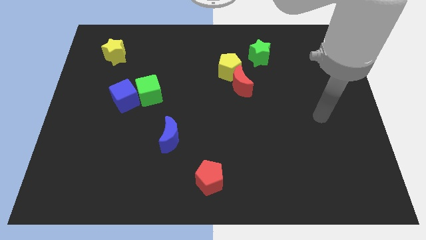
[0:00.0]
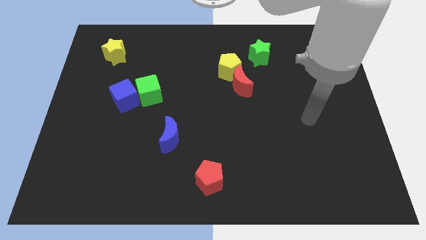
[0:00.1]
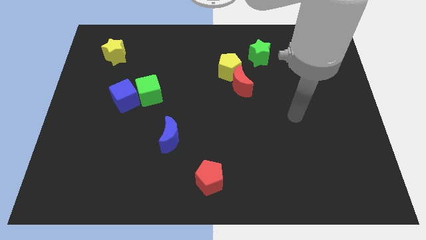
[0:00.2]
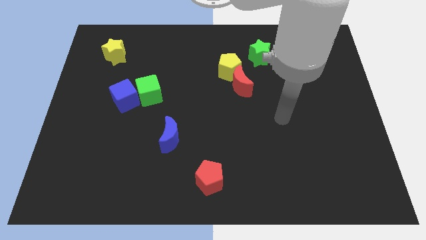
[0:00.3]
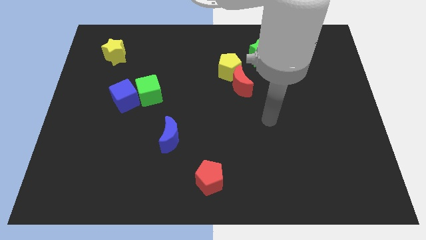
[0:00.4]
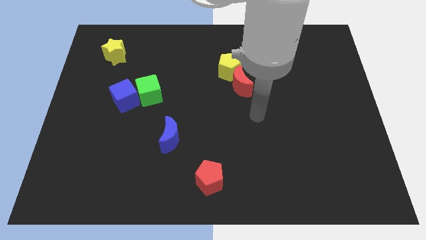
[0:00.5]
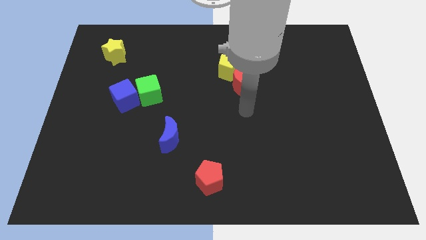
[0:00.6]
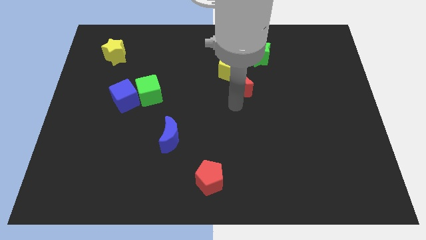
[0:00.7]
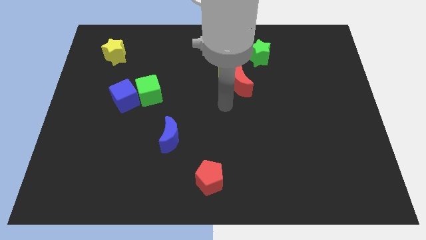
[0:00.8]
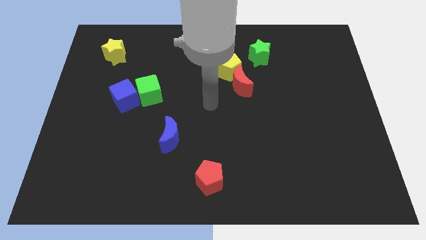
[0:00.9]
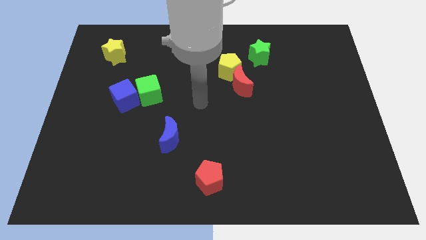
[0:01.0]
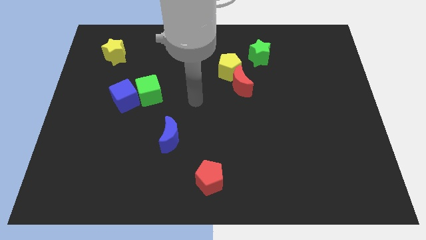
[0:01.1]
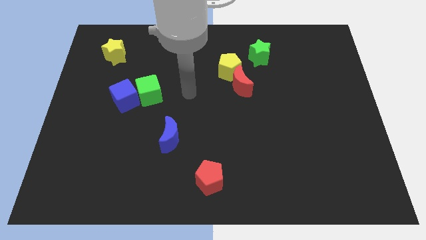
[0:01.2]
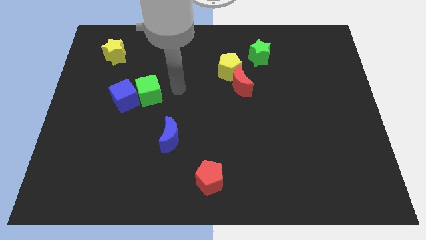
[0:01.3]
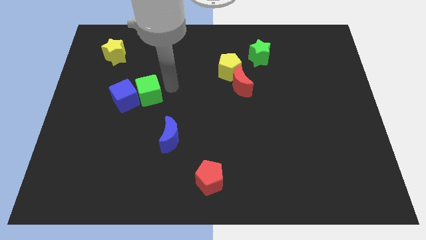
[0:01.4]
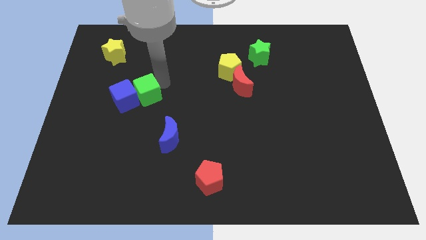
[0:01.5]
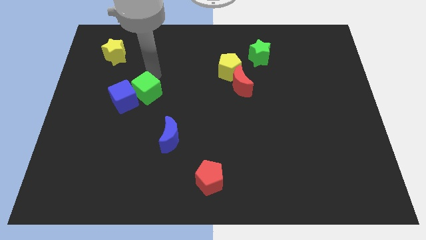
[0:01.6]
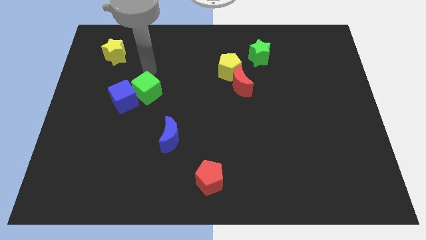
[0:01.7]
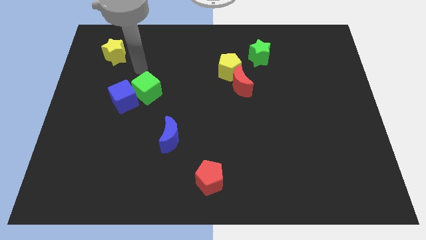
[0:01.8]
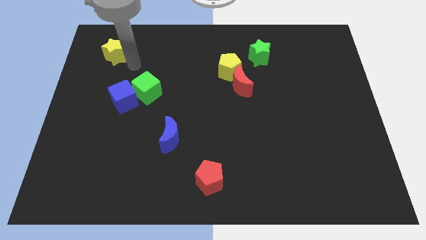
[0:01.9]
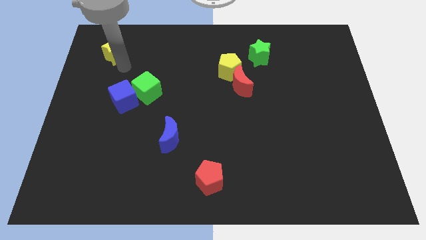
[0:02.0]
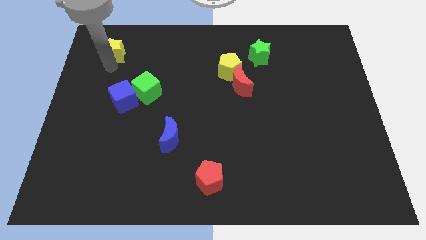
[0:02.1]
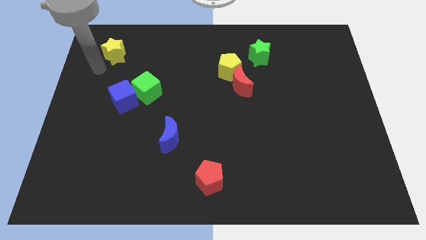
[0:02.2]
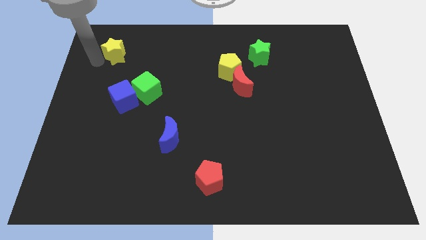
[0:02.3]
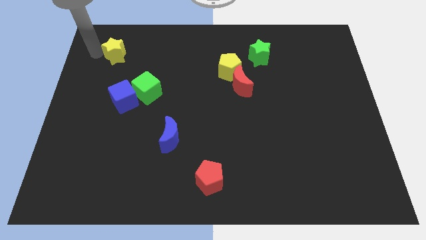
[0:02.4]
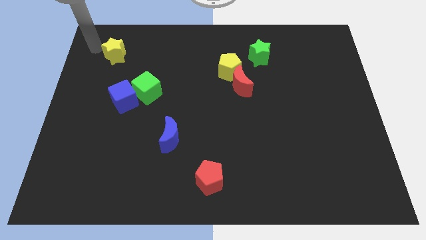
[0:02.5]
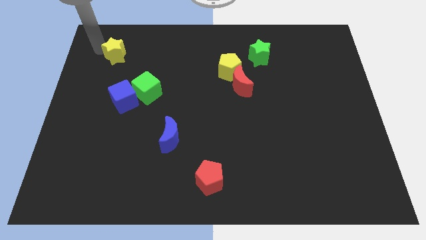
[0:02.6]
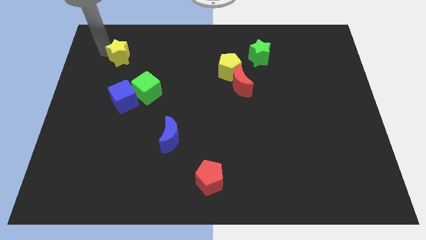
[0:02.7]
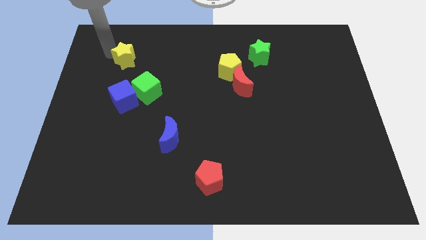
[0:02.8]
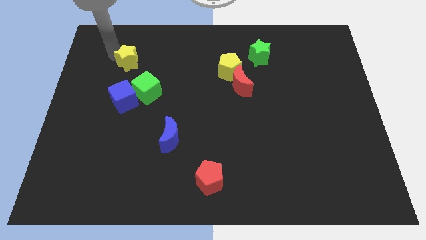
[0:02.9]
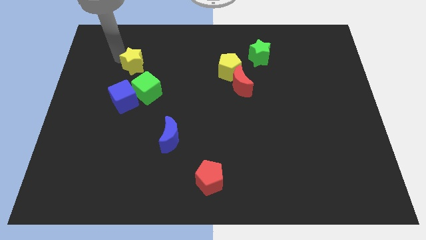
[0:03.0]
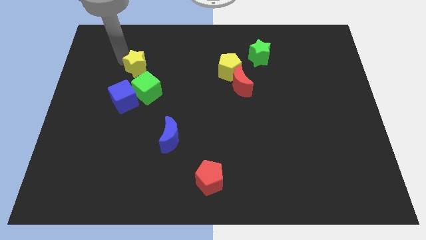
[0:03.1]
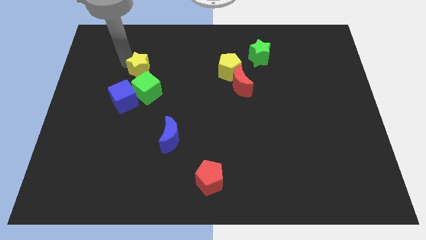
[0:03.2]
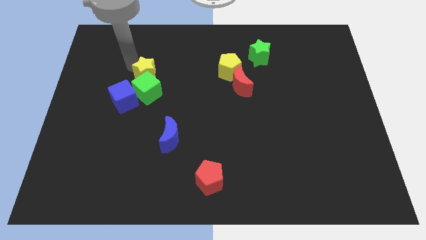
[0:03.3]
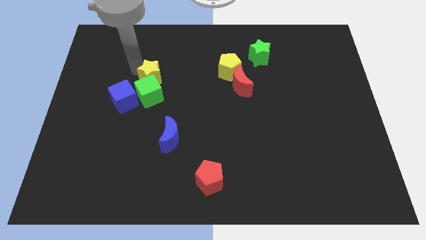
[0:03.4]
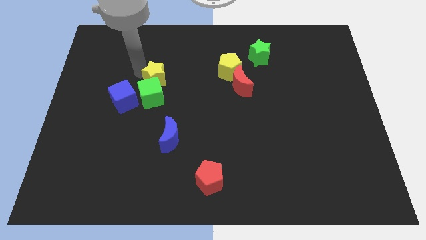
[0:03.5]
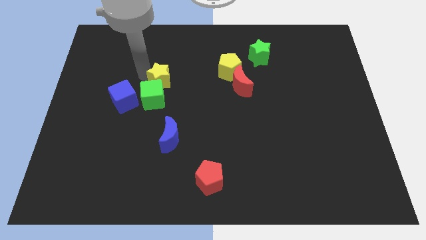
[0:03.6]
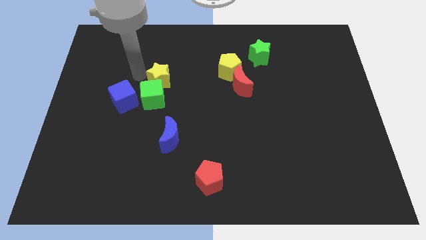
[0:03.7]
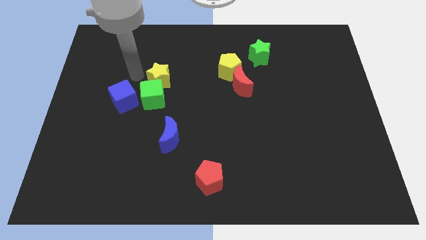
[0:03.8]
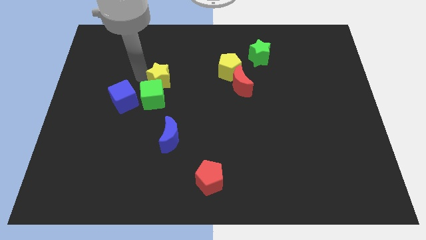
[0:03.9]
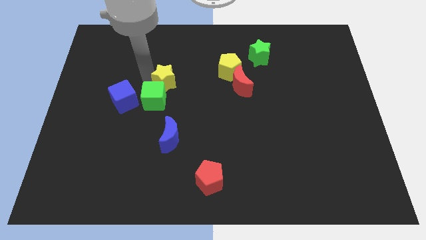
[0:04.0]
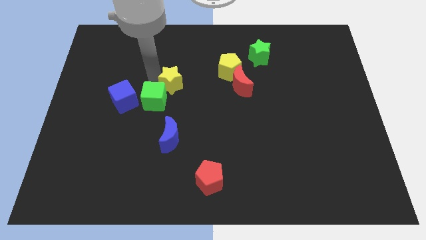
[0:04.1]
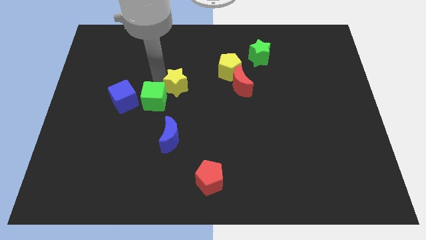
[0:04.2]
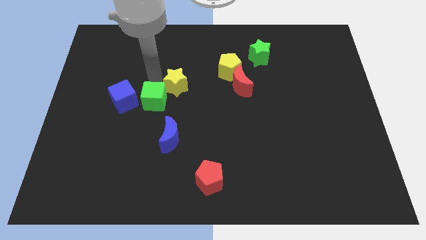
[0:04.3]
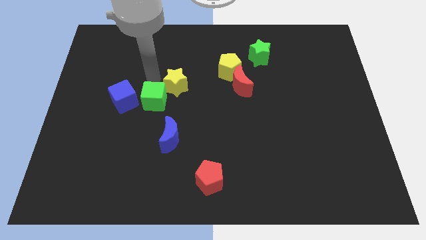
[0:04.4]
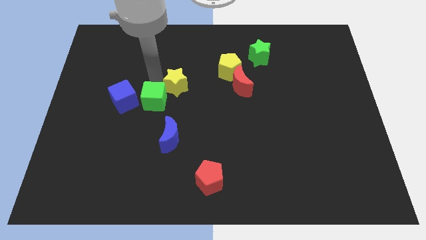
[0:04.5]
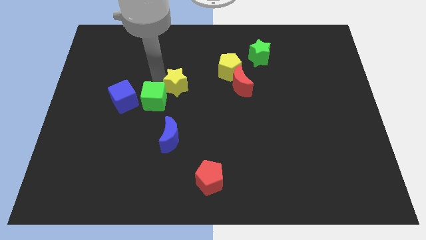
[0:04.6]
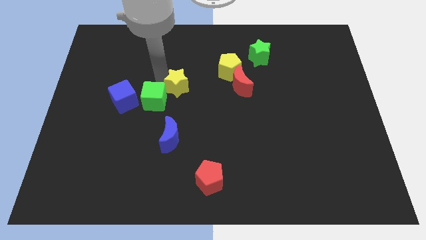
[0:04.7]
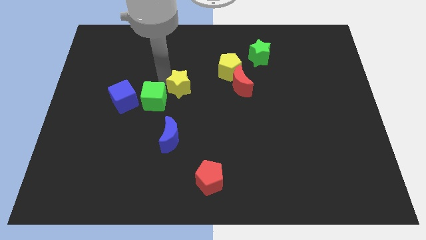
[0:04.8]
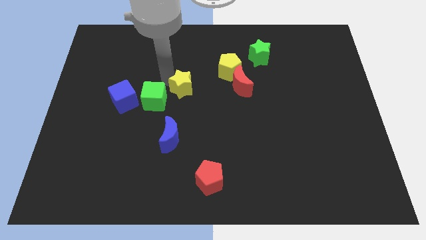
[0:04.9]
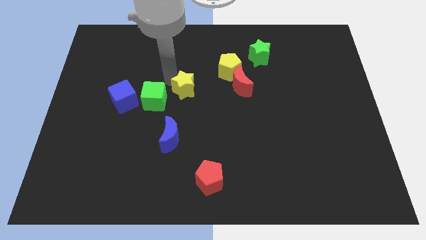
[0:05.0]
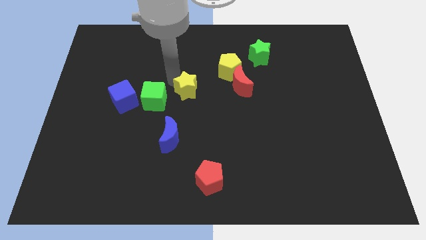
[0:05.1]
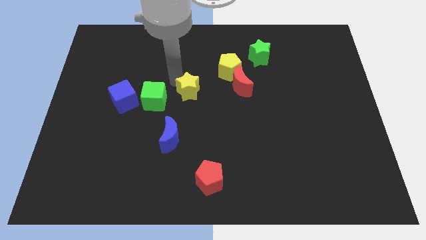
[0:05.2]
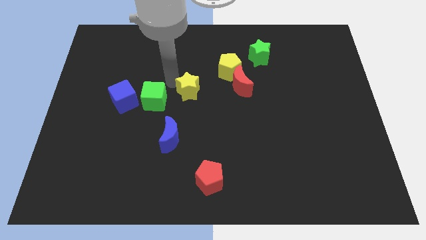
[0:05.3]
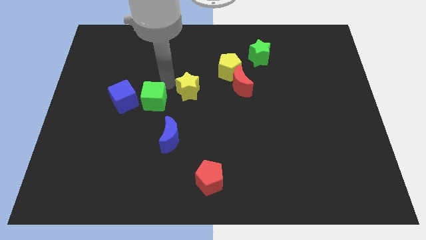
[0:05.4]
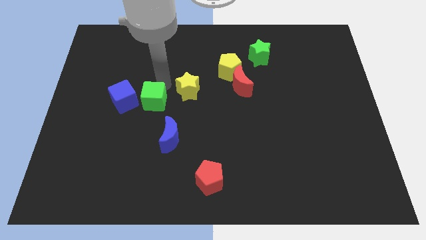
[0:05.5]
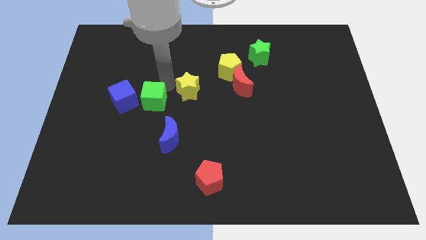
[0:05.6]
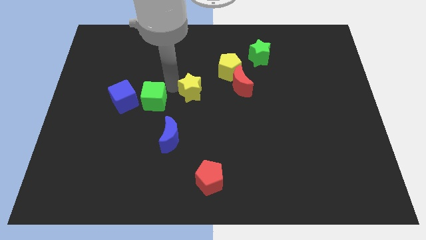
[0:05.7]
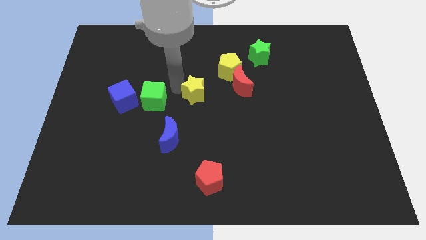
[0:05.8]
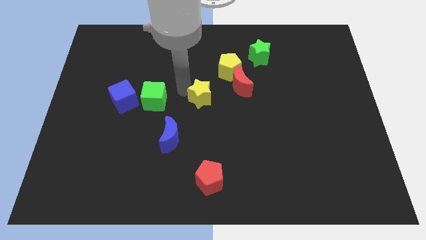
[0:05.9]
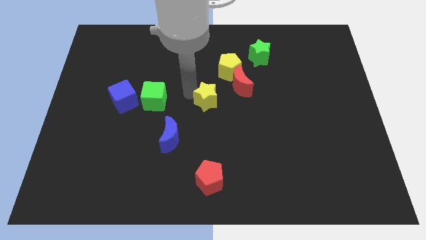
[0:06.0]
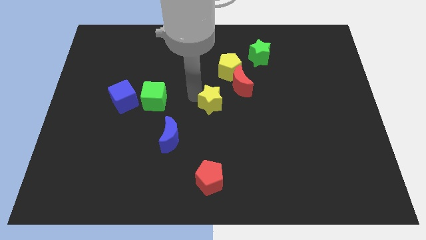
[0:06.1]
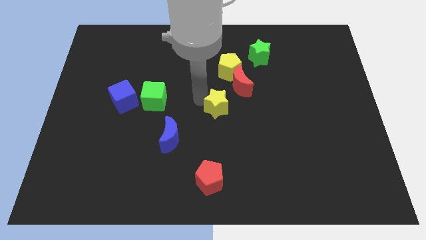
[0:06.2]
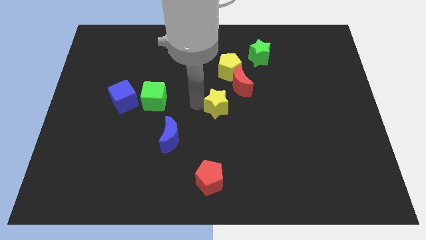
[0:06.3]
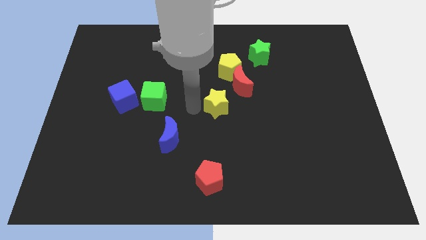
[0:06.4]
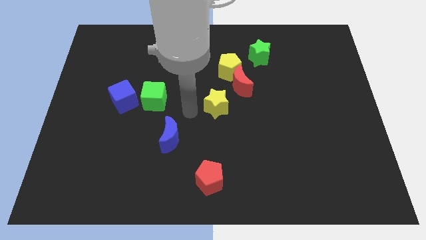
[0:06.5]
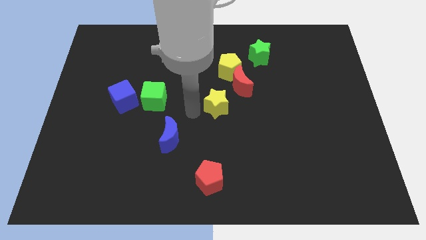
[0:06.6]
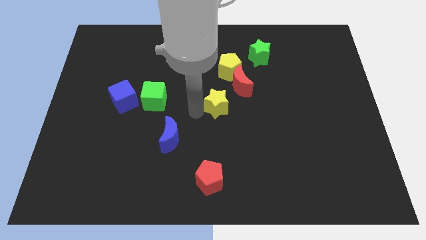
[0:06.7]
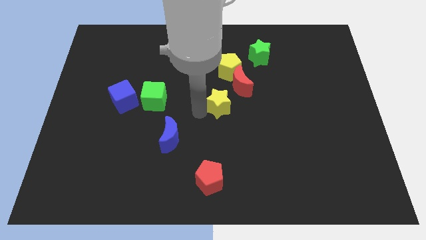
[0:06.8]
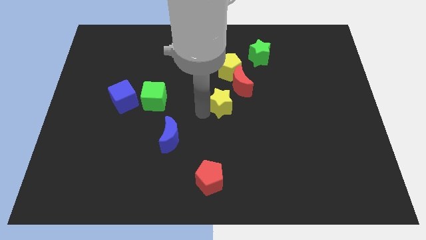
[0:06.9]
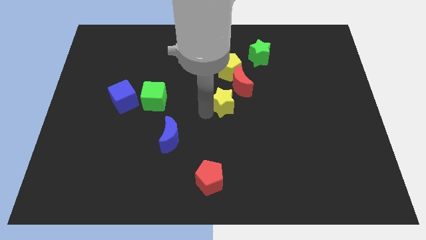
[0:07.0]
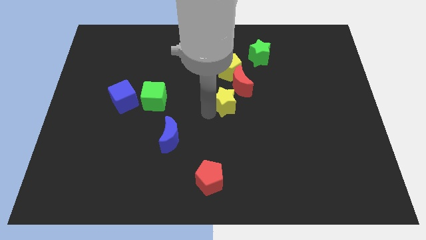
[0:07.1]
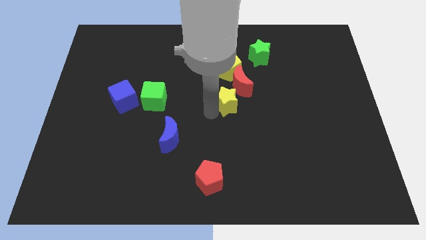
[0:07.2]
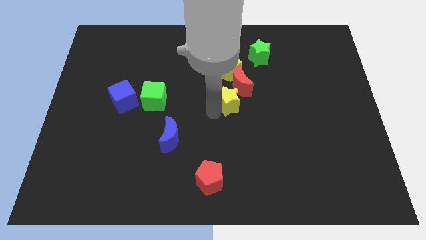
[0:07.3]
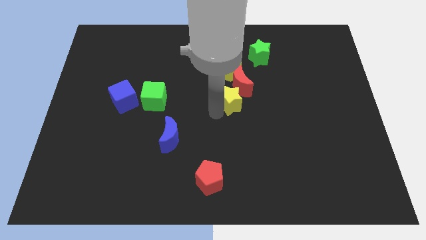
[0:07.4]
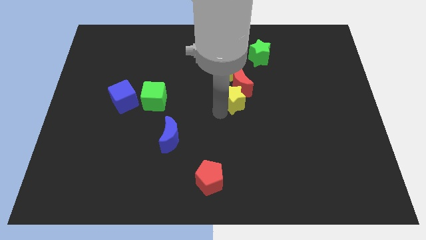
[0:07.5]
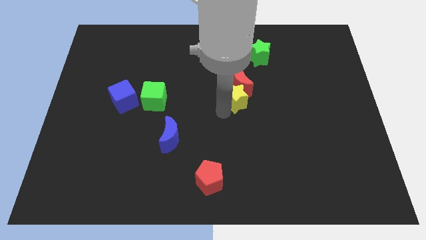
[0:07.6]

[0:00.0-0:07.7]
slide the yellow star diagonally down and to the right of the red moon

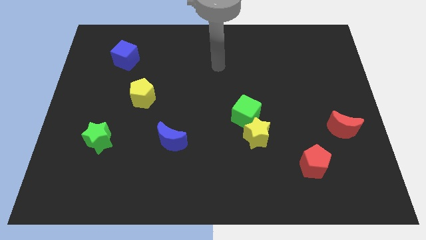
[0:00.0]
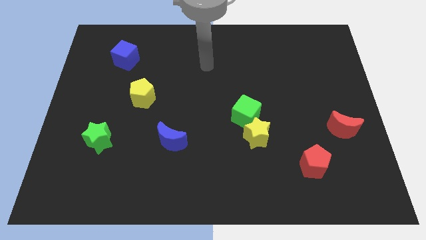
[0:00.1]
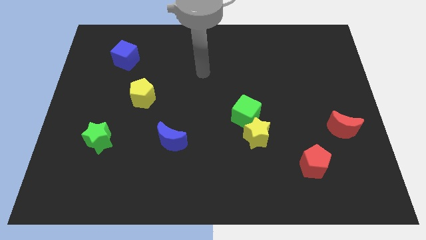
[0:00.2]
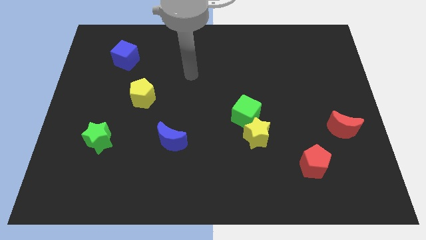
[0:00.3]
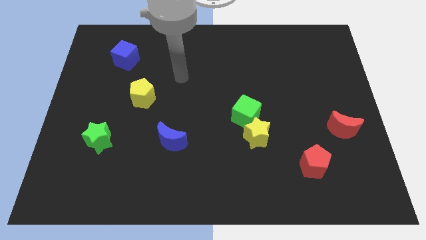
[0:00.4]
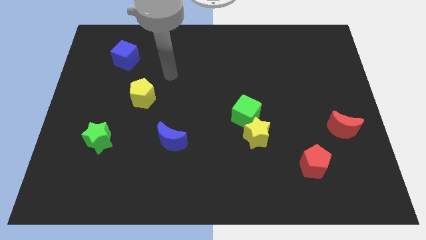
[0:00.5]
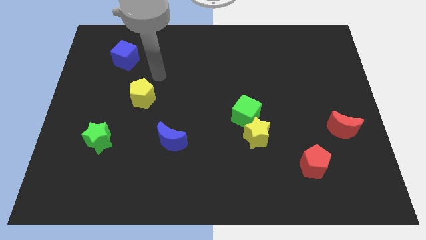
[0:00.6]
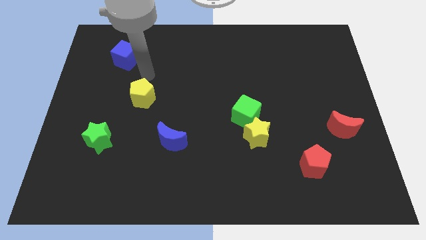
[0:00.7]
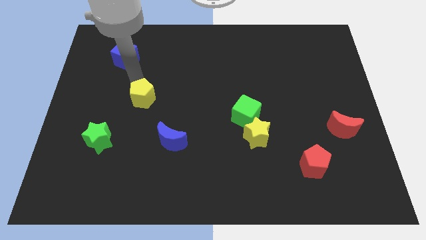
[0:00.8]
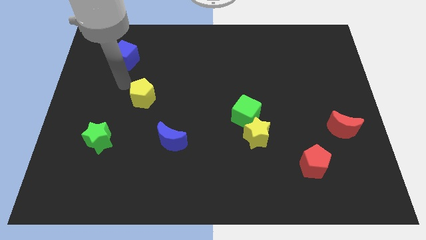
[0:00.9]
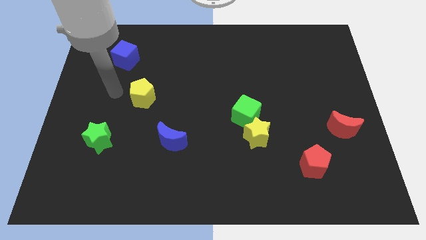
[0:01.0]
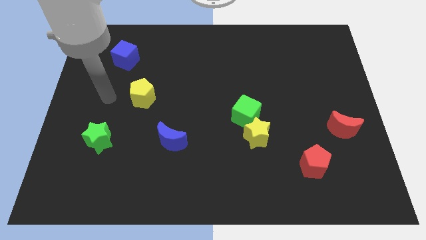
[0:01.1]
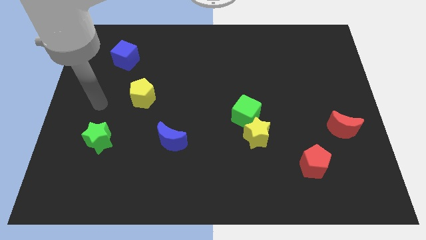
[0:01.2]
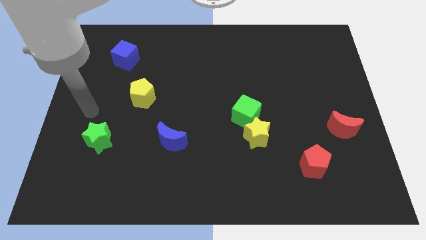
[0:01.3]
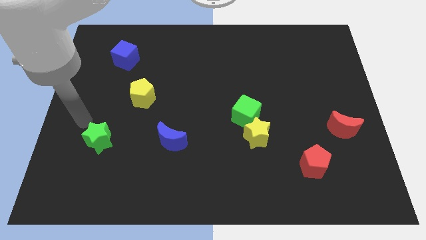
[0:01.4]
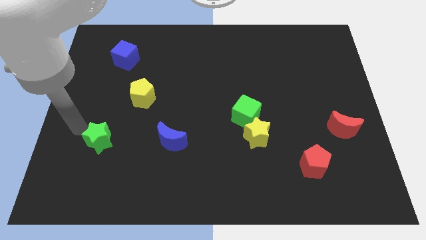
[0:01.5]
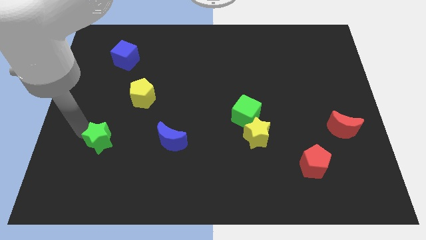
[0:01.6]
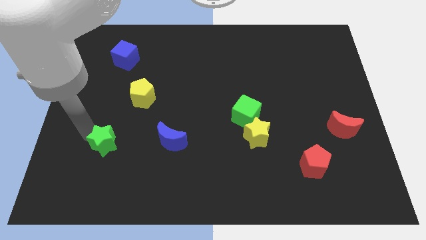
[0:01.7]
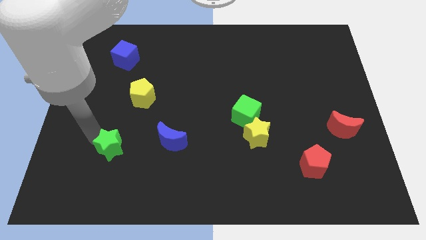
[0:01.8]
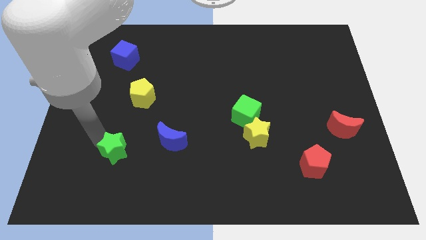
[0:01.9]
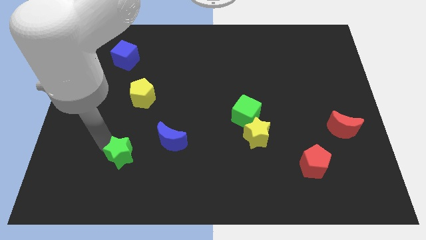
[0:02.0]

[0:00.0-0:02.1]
put the green star diagonally down and to the left of the blue moon
